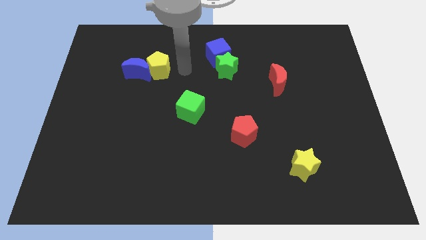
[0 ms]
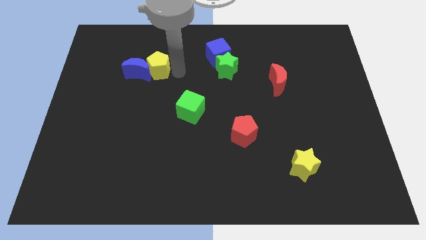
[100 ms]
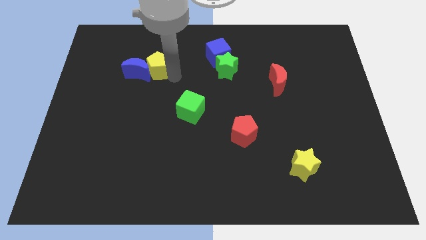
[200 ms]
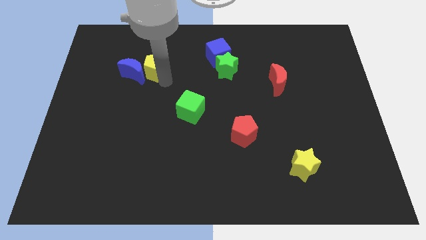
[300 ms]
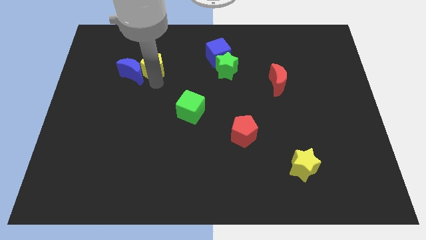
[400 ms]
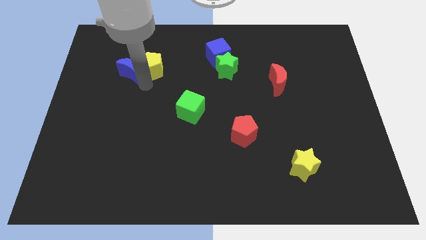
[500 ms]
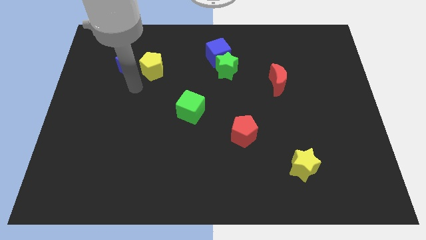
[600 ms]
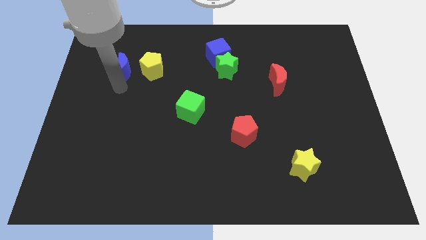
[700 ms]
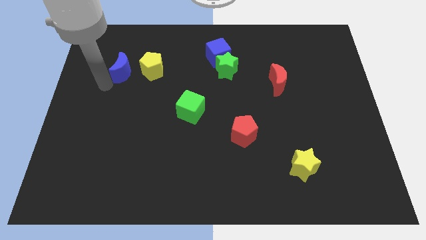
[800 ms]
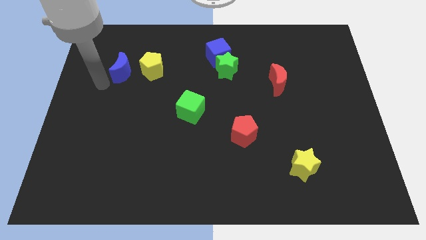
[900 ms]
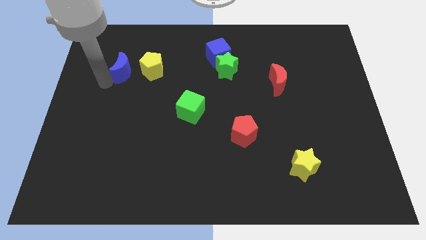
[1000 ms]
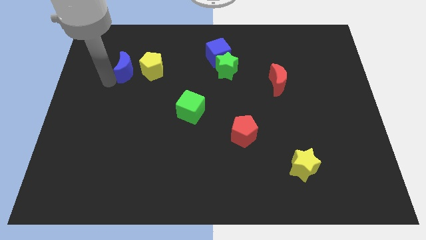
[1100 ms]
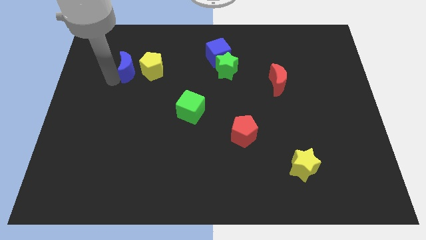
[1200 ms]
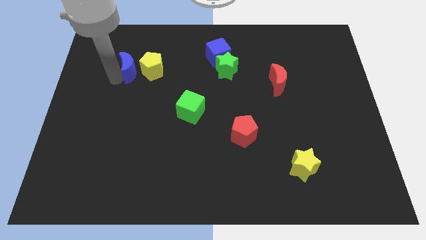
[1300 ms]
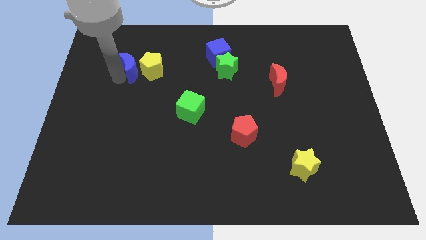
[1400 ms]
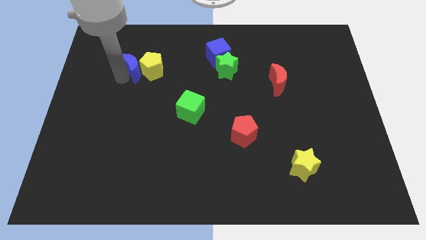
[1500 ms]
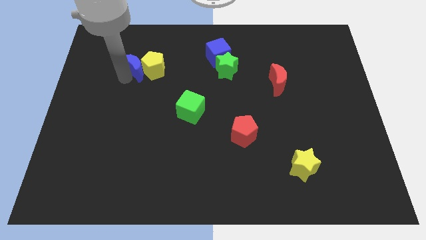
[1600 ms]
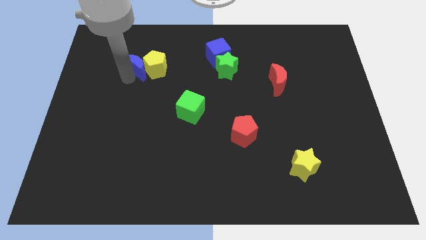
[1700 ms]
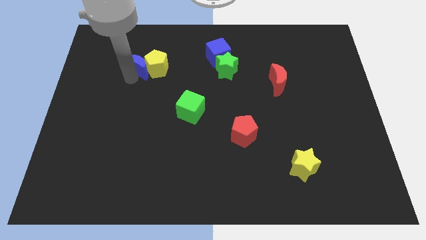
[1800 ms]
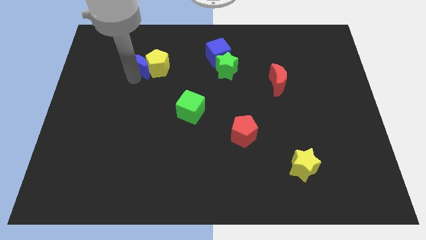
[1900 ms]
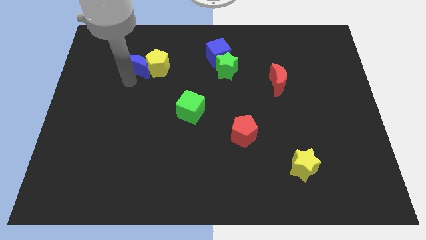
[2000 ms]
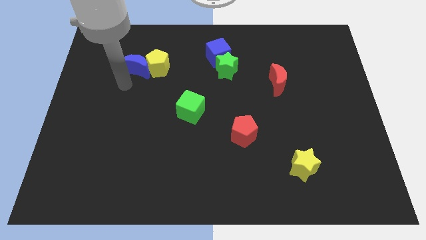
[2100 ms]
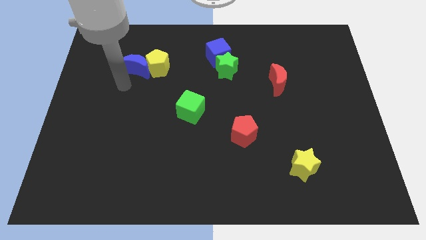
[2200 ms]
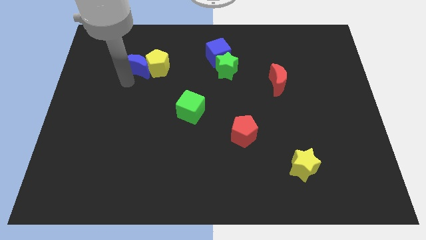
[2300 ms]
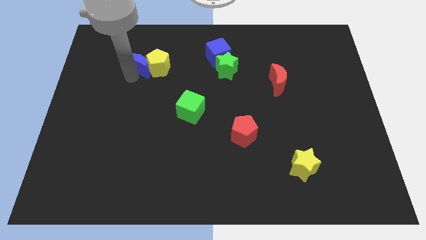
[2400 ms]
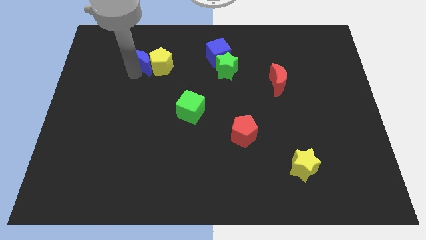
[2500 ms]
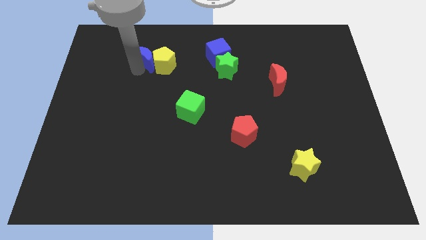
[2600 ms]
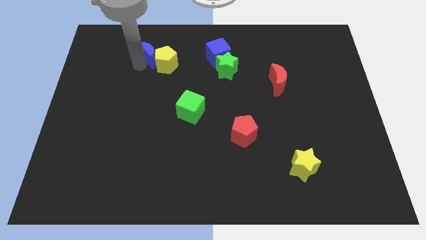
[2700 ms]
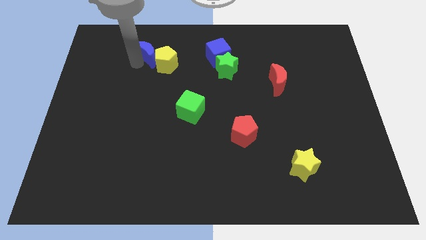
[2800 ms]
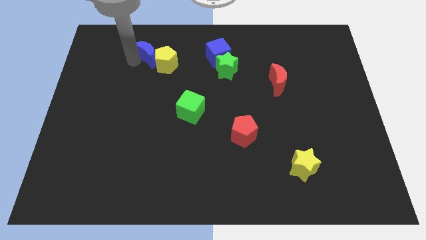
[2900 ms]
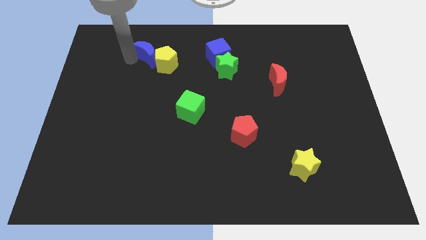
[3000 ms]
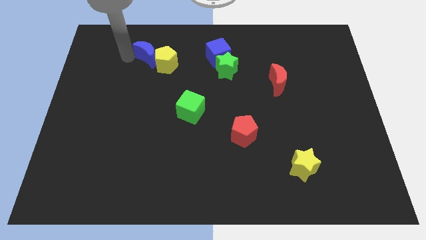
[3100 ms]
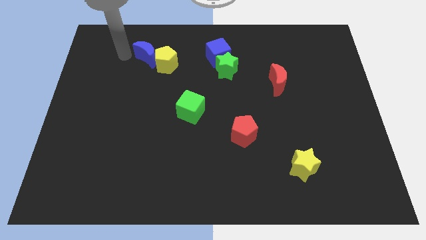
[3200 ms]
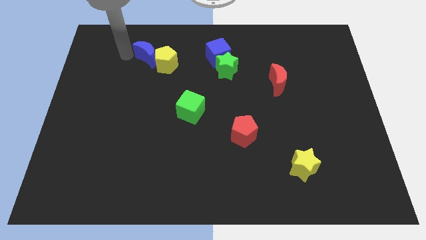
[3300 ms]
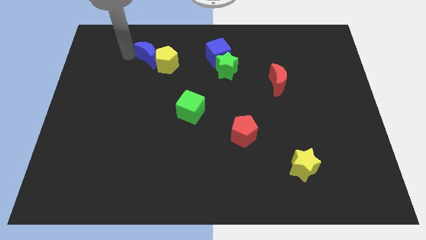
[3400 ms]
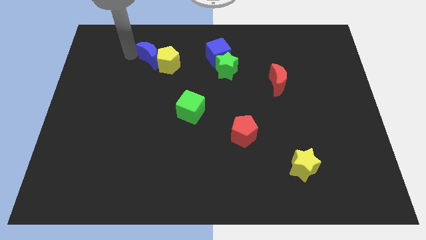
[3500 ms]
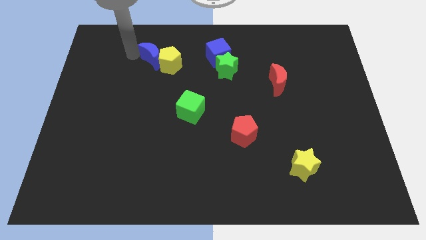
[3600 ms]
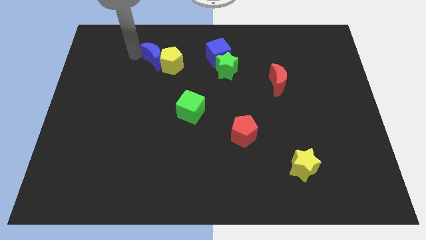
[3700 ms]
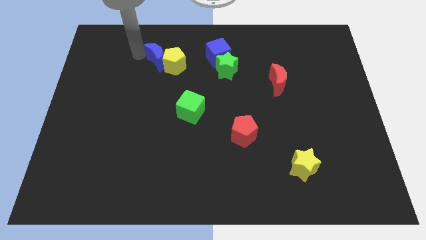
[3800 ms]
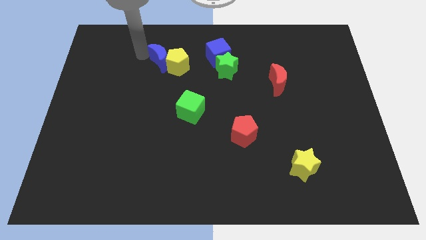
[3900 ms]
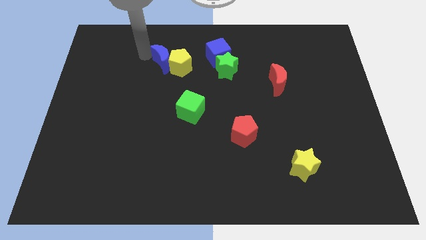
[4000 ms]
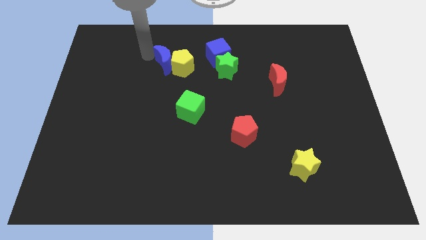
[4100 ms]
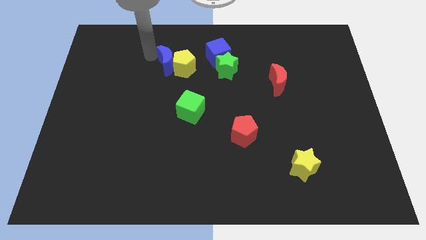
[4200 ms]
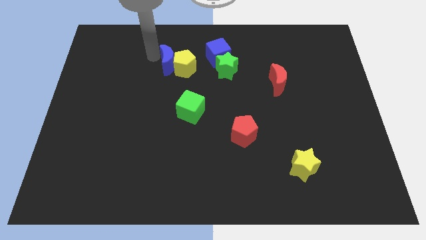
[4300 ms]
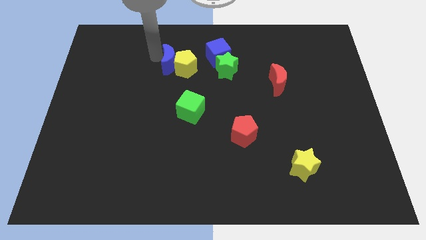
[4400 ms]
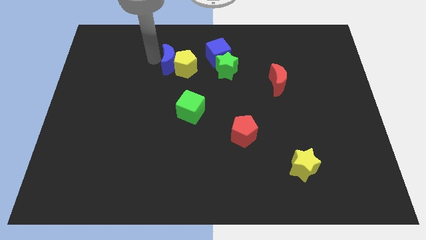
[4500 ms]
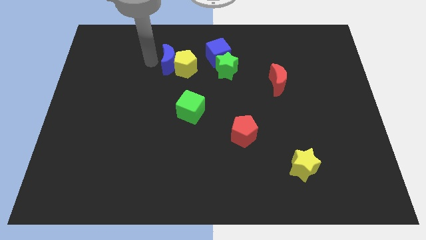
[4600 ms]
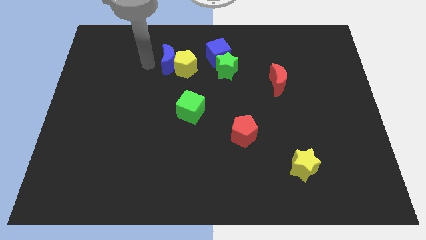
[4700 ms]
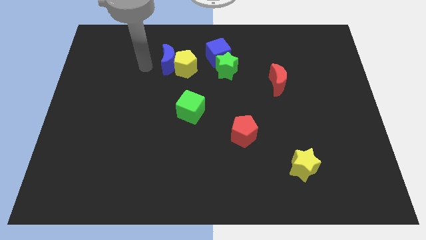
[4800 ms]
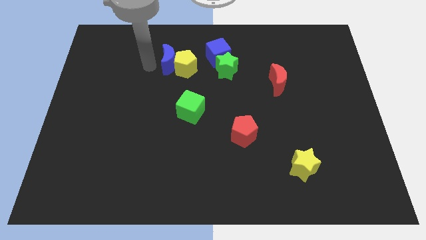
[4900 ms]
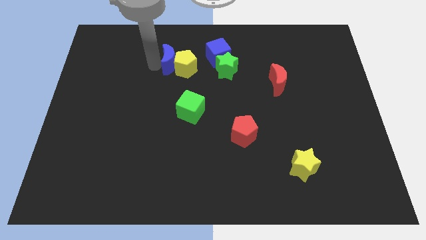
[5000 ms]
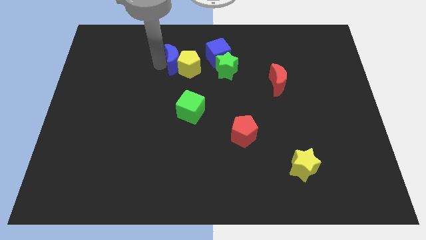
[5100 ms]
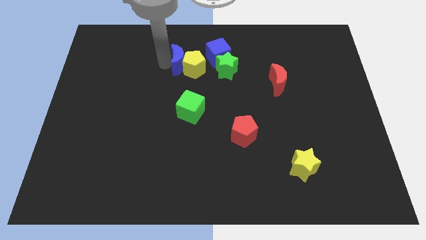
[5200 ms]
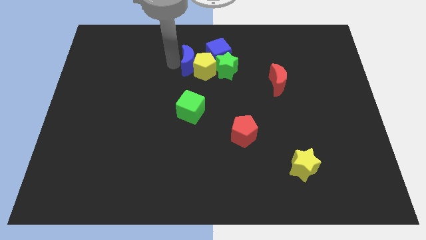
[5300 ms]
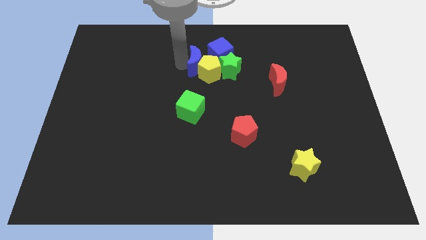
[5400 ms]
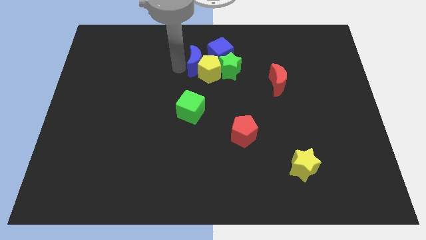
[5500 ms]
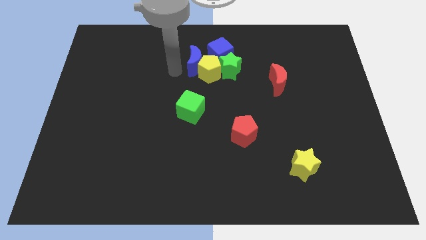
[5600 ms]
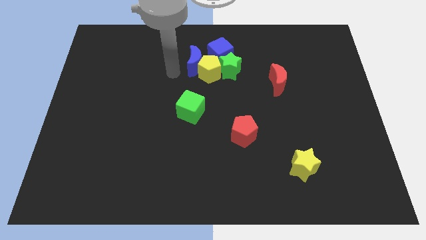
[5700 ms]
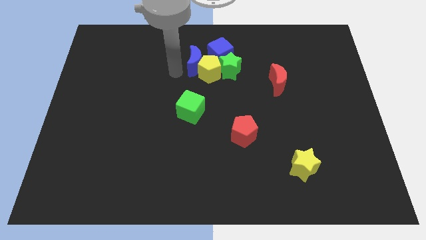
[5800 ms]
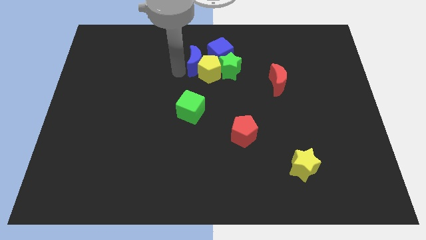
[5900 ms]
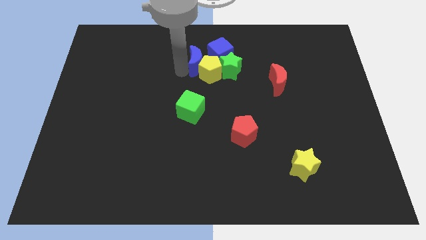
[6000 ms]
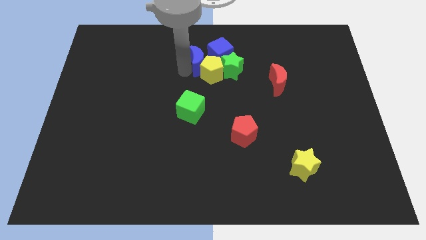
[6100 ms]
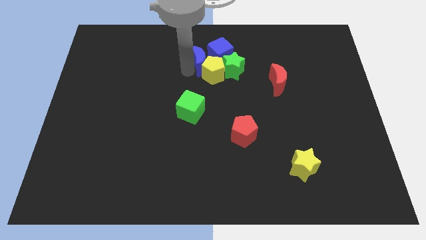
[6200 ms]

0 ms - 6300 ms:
move the blue moon close to the blue cube

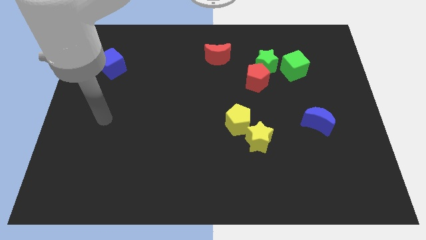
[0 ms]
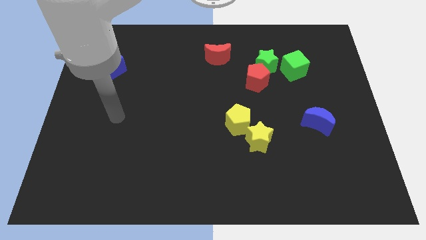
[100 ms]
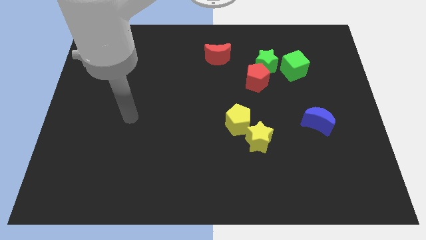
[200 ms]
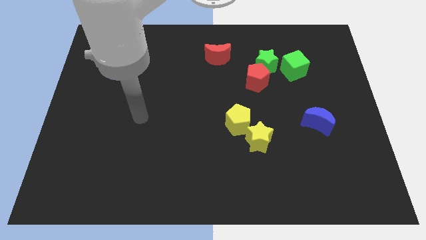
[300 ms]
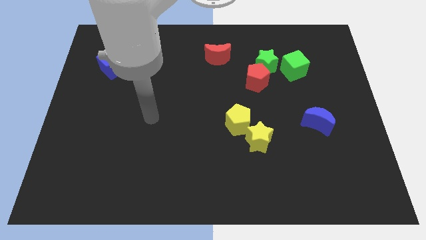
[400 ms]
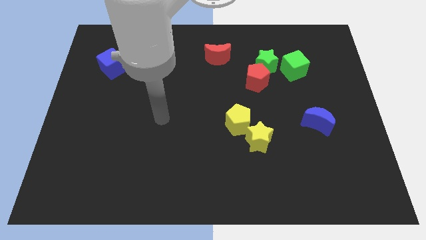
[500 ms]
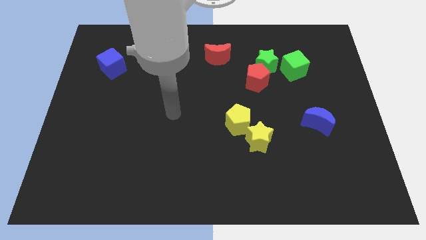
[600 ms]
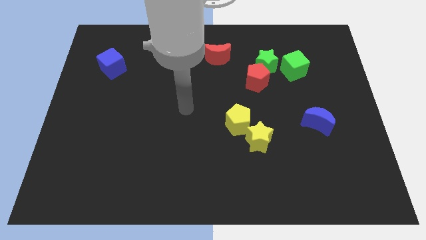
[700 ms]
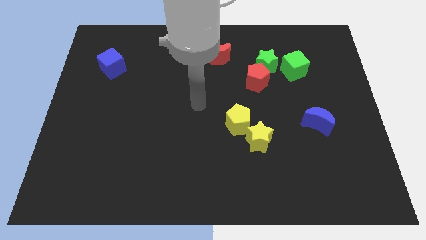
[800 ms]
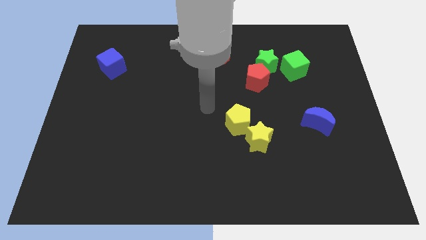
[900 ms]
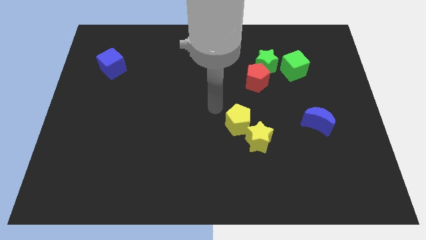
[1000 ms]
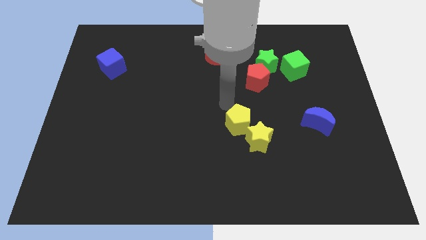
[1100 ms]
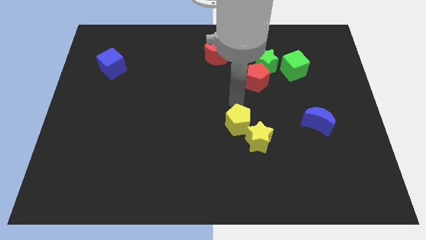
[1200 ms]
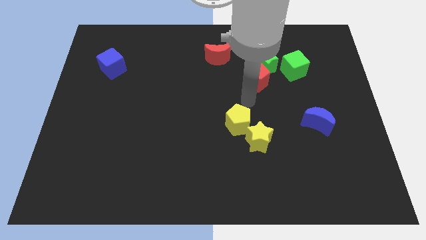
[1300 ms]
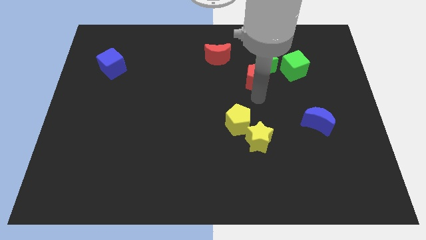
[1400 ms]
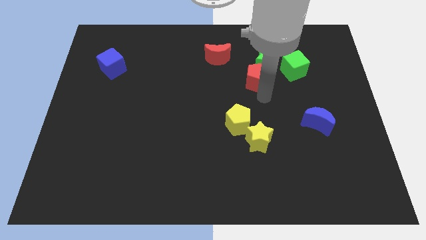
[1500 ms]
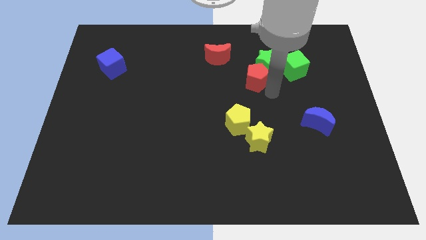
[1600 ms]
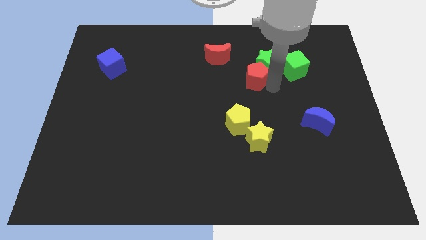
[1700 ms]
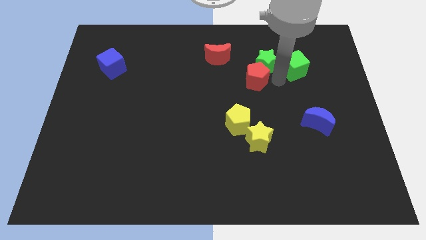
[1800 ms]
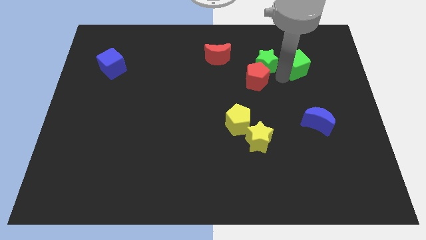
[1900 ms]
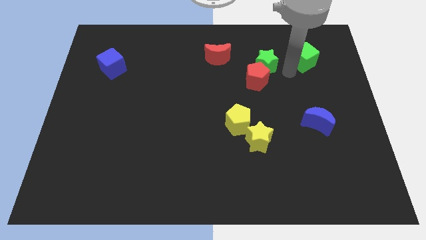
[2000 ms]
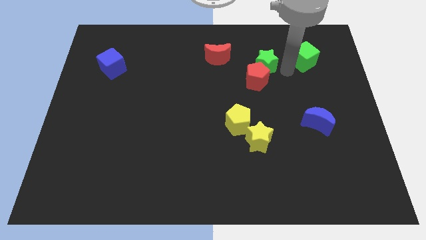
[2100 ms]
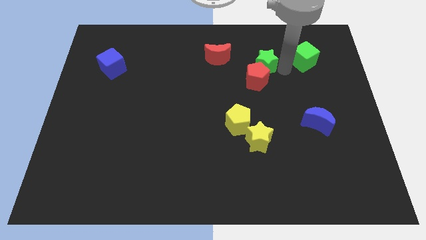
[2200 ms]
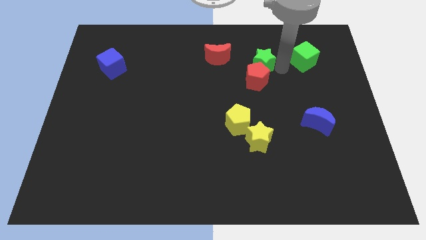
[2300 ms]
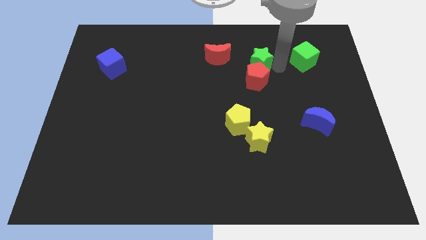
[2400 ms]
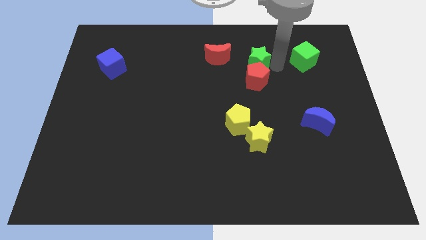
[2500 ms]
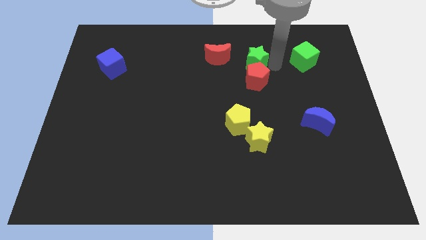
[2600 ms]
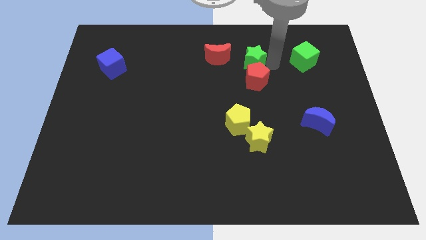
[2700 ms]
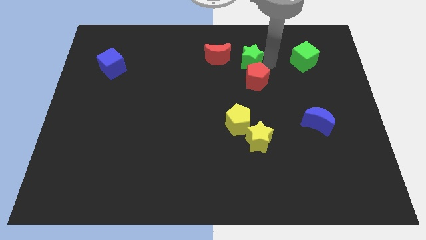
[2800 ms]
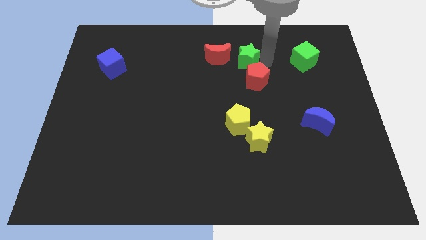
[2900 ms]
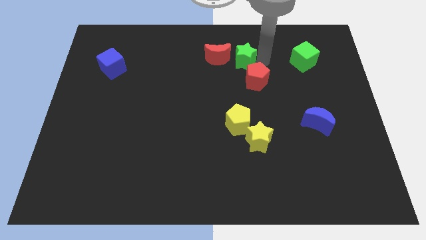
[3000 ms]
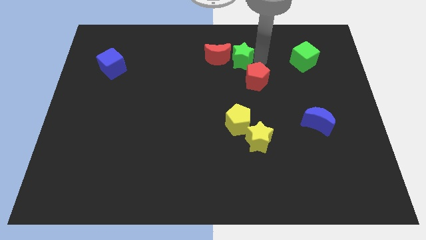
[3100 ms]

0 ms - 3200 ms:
move the green star towards the red moon
